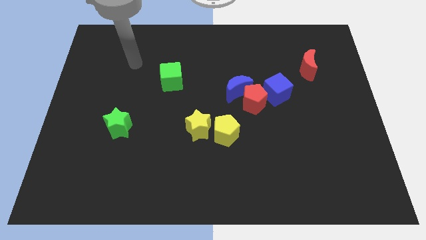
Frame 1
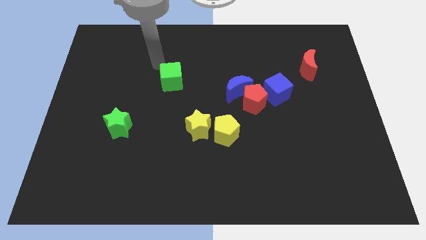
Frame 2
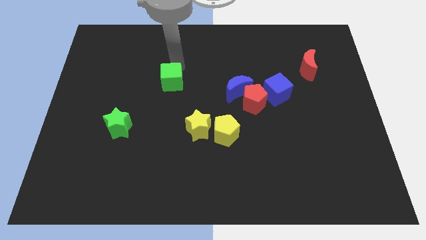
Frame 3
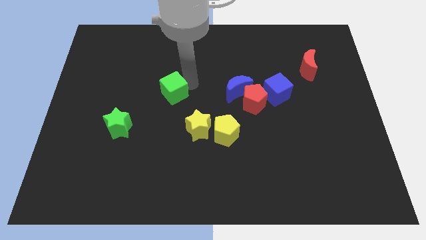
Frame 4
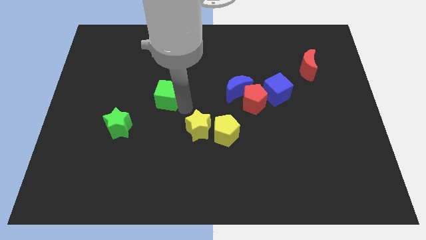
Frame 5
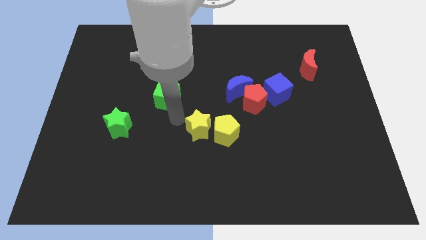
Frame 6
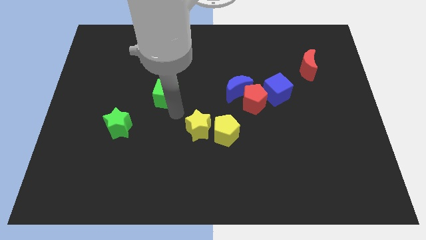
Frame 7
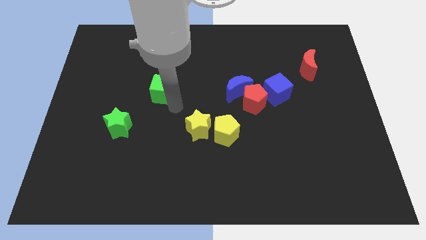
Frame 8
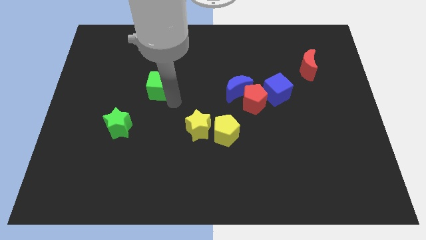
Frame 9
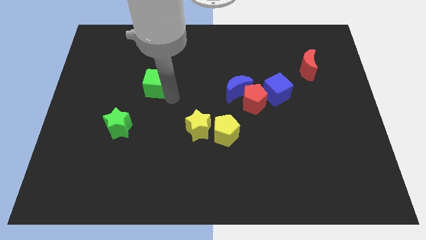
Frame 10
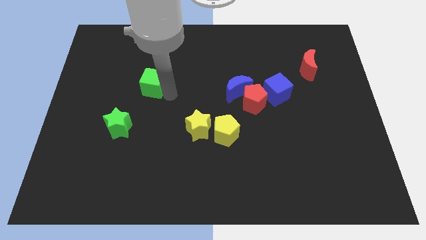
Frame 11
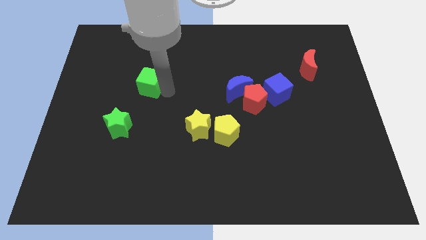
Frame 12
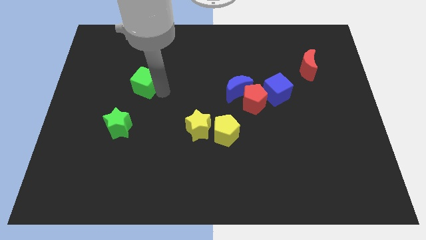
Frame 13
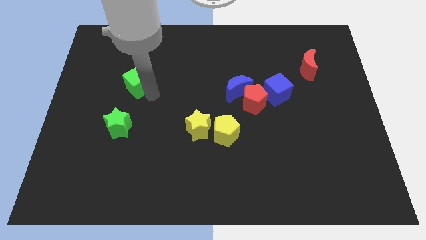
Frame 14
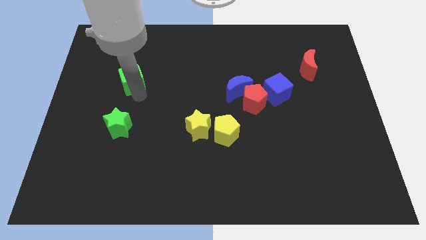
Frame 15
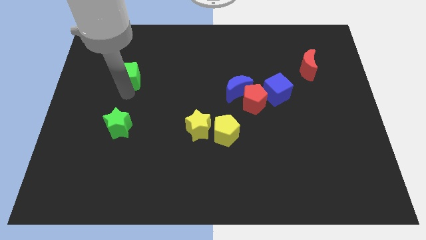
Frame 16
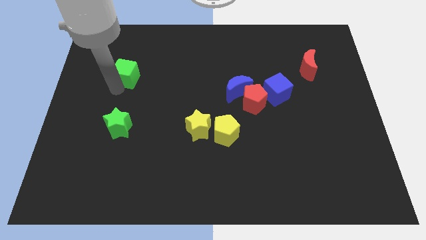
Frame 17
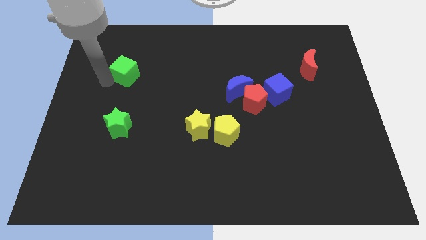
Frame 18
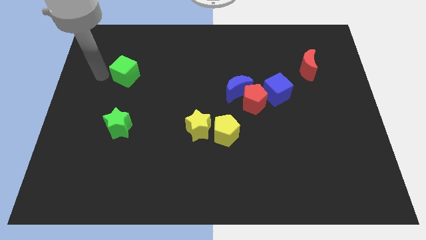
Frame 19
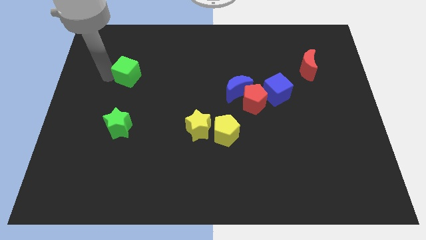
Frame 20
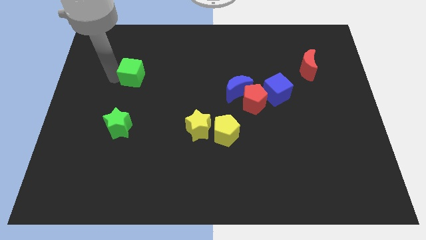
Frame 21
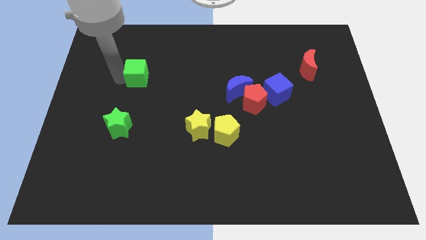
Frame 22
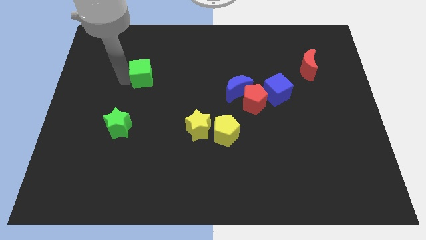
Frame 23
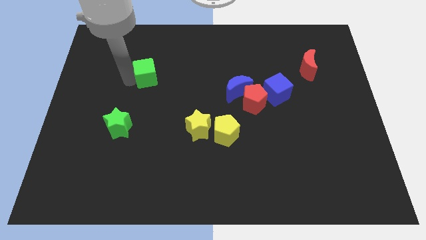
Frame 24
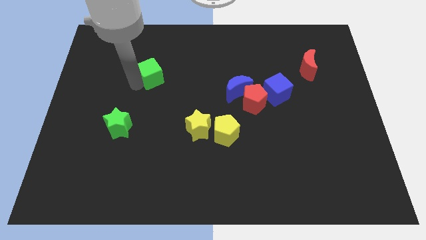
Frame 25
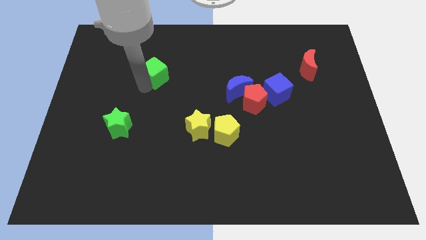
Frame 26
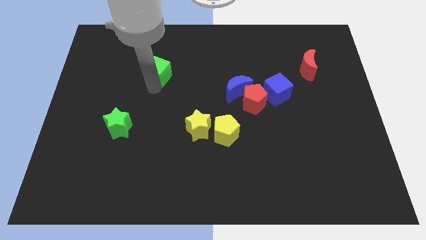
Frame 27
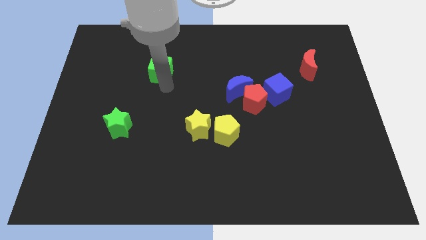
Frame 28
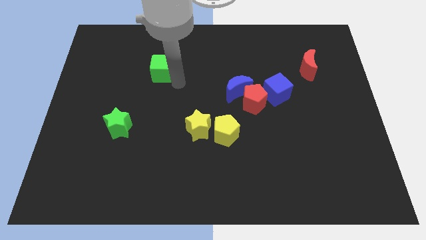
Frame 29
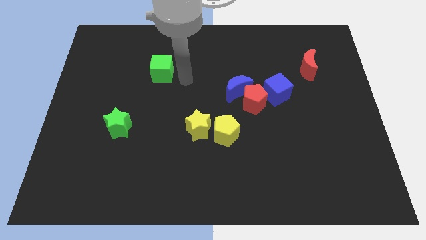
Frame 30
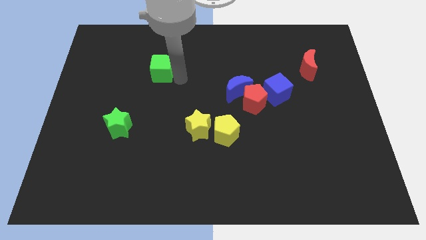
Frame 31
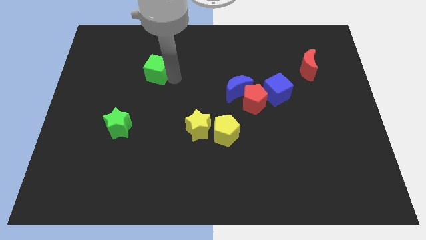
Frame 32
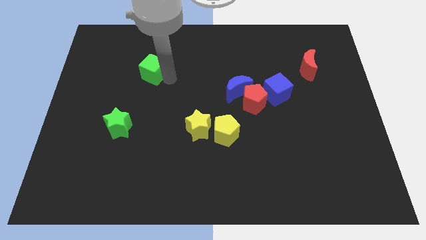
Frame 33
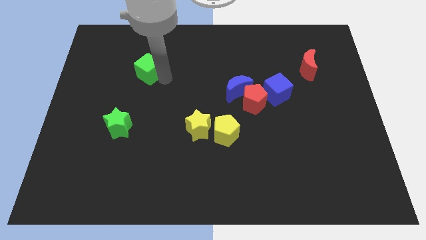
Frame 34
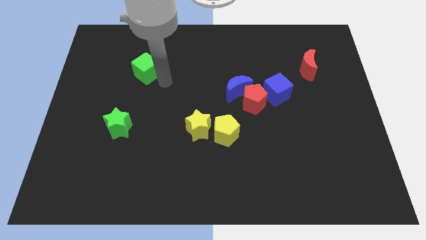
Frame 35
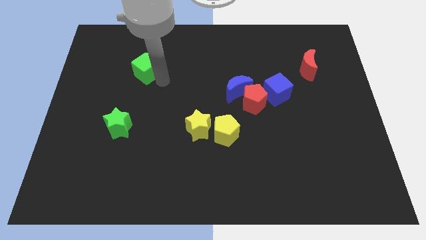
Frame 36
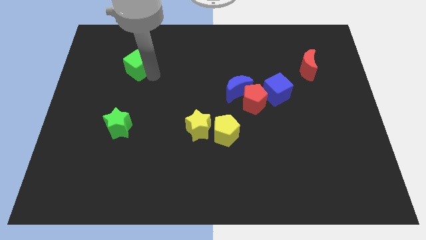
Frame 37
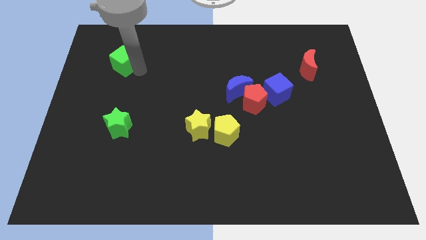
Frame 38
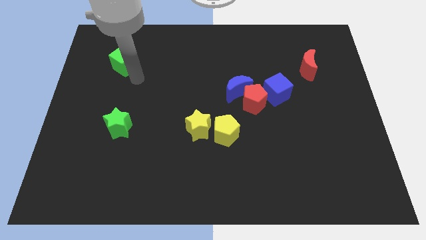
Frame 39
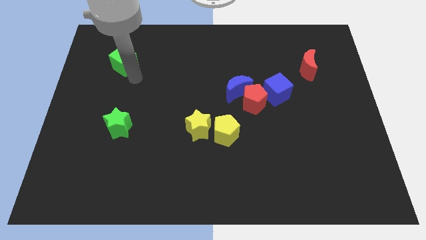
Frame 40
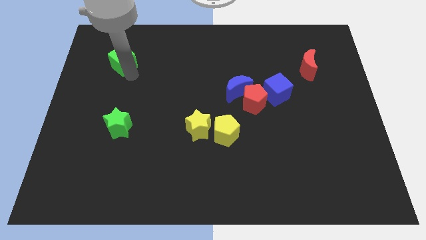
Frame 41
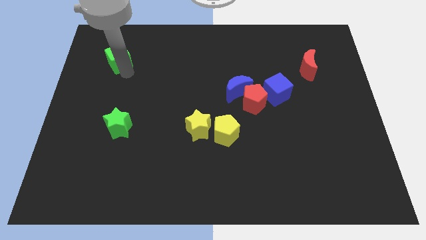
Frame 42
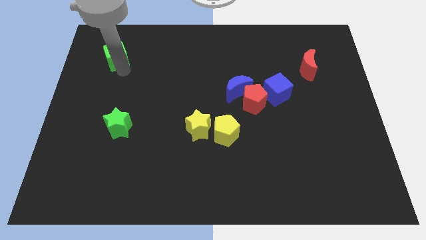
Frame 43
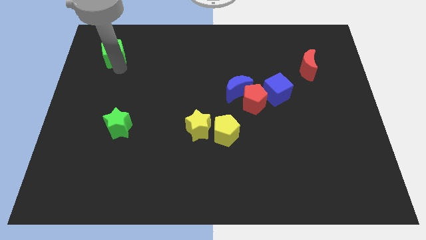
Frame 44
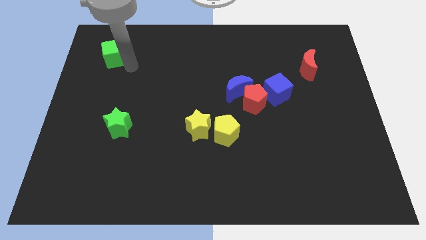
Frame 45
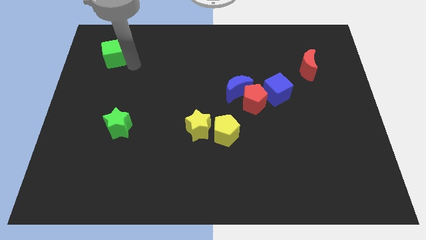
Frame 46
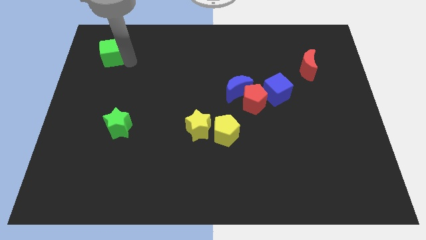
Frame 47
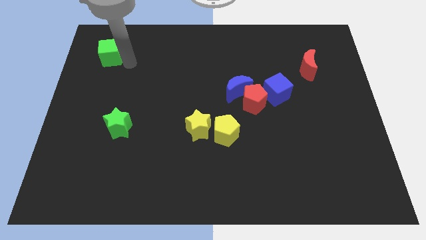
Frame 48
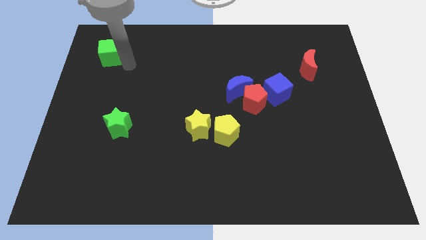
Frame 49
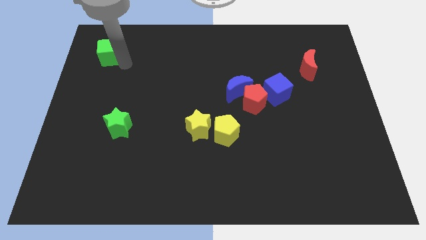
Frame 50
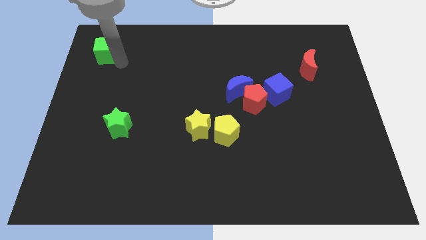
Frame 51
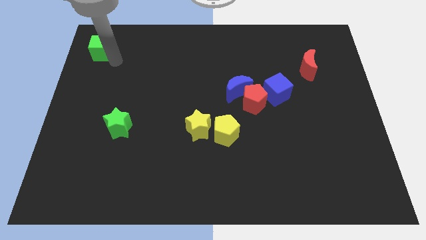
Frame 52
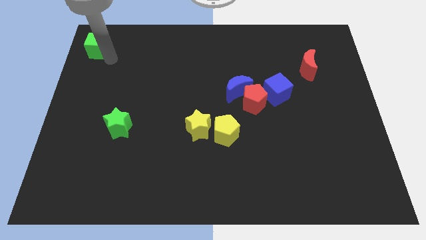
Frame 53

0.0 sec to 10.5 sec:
push the green cube to the top left

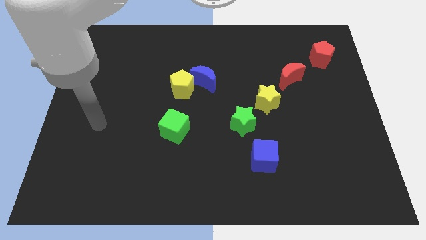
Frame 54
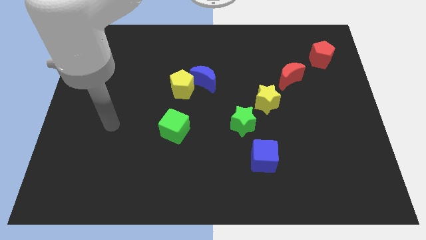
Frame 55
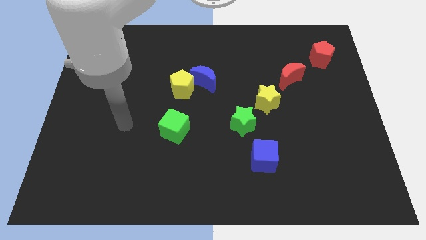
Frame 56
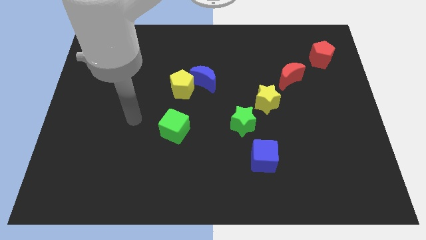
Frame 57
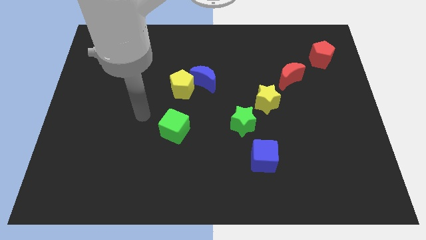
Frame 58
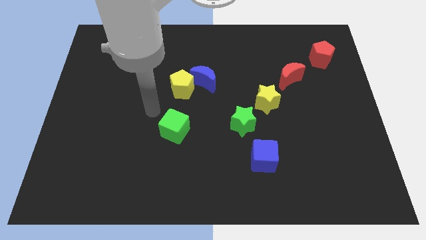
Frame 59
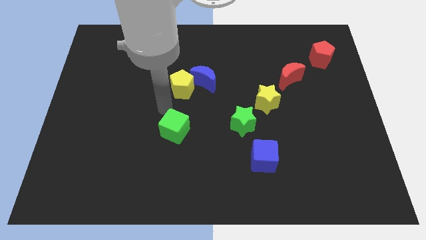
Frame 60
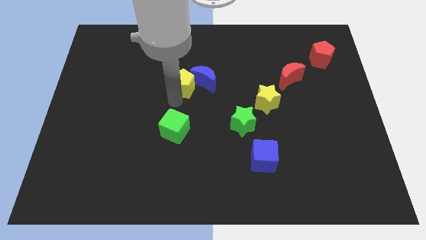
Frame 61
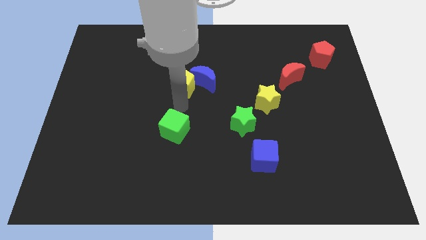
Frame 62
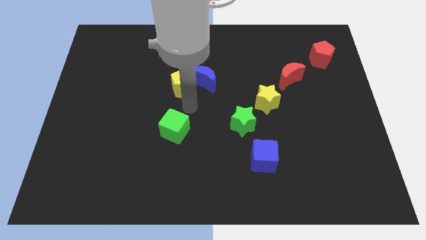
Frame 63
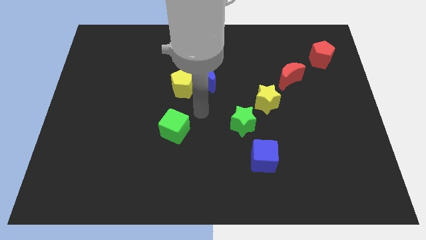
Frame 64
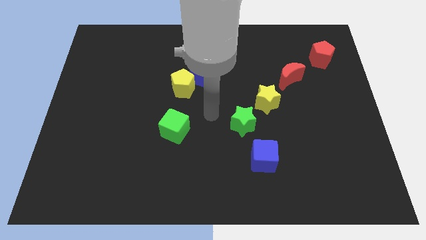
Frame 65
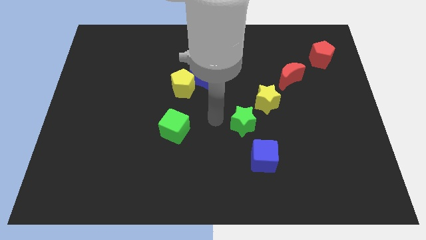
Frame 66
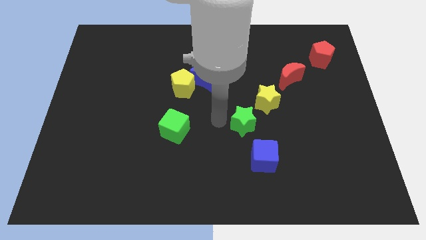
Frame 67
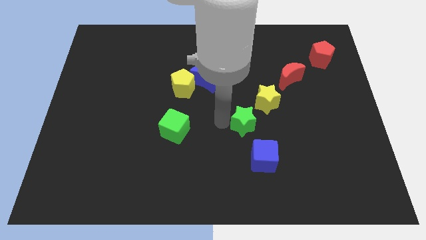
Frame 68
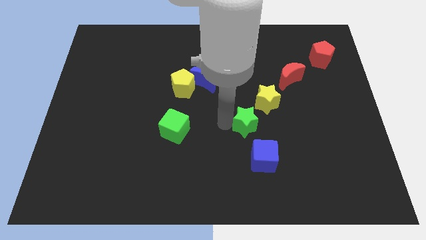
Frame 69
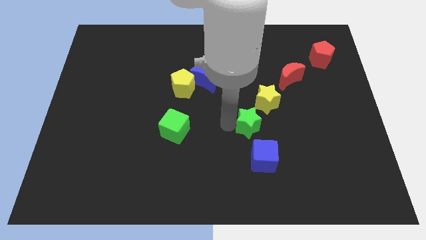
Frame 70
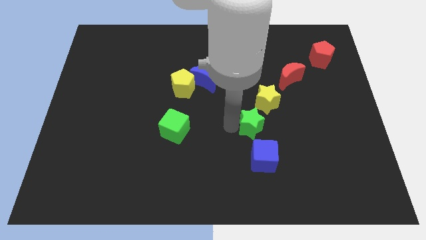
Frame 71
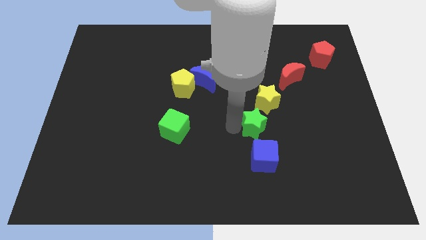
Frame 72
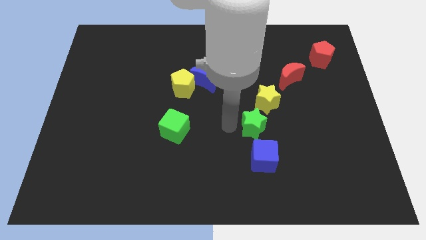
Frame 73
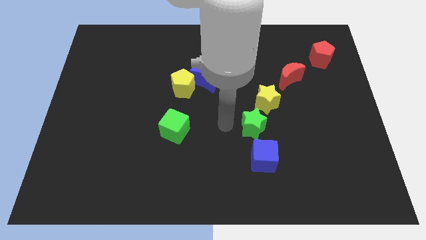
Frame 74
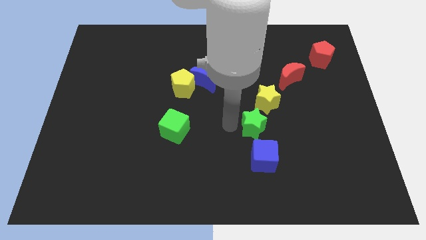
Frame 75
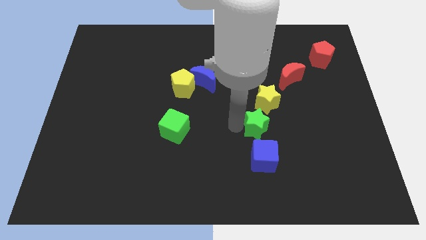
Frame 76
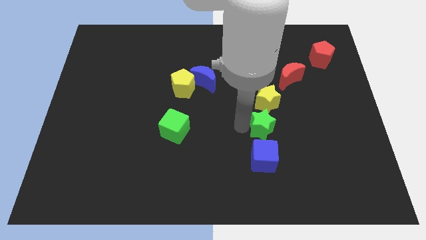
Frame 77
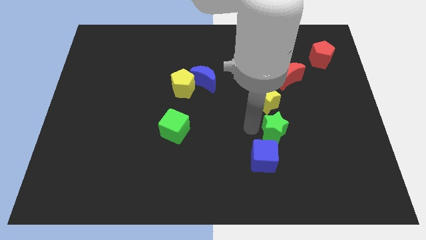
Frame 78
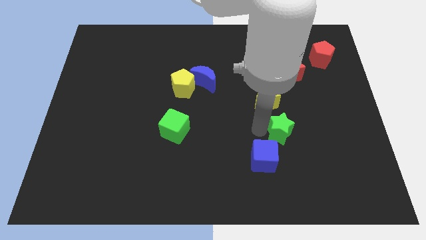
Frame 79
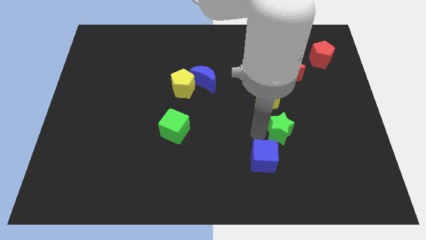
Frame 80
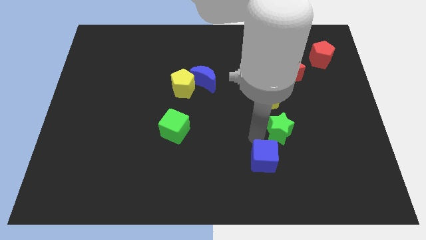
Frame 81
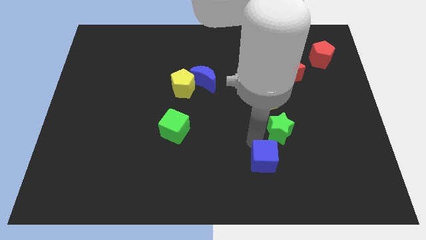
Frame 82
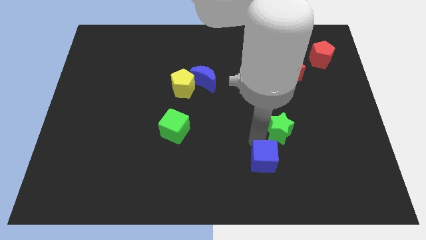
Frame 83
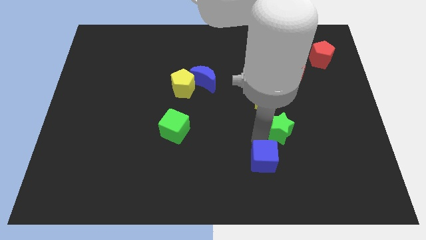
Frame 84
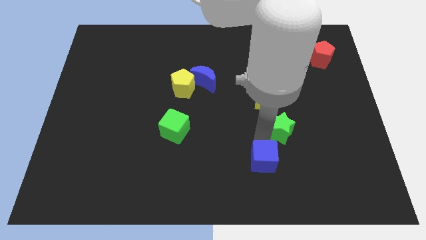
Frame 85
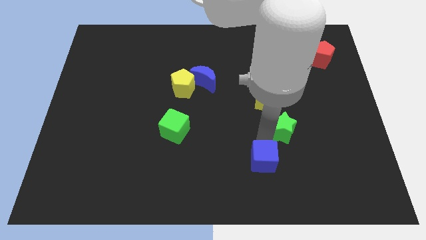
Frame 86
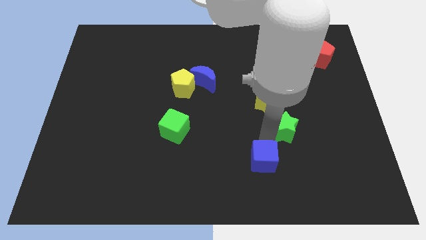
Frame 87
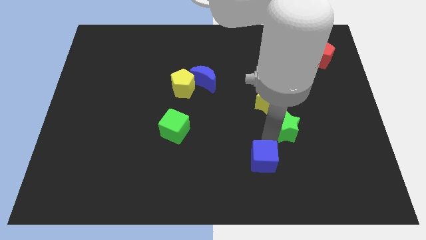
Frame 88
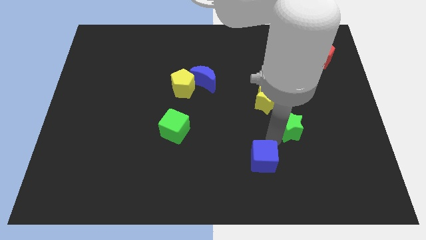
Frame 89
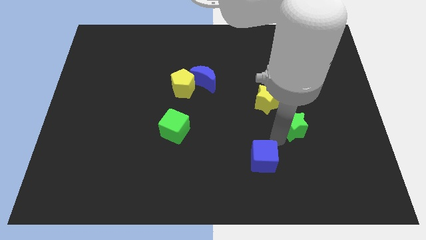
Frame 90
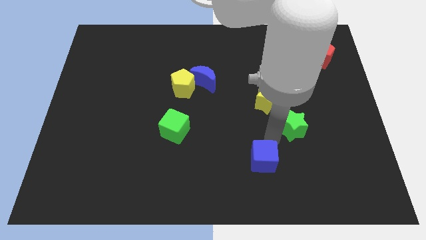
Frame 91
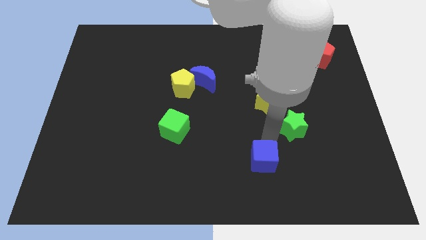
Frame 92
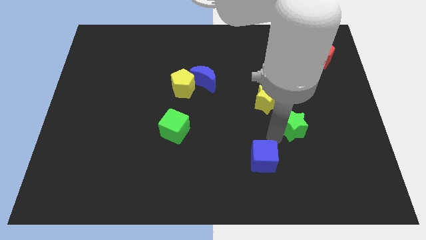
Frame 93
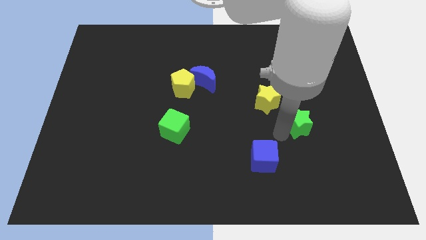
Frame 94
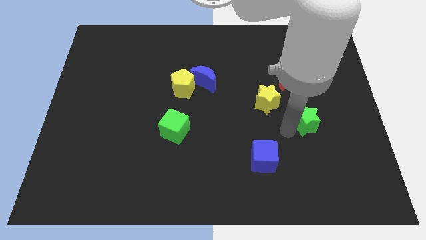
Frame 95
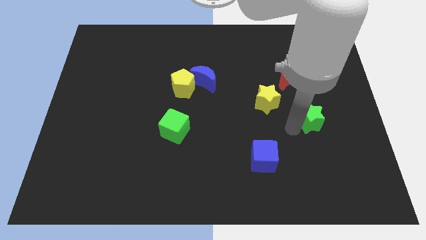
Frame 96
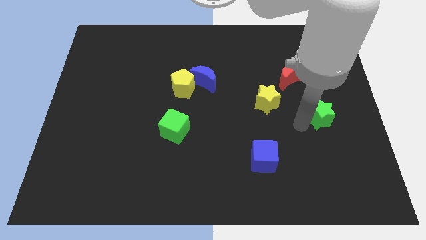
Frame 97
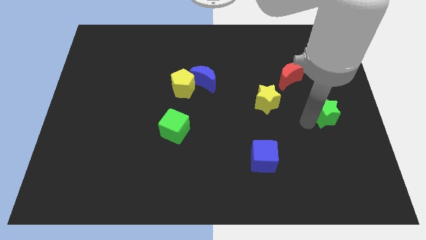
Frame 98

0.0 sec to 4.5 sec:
slide the green star to the right side of the board
